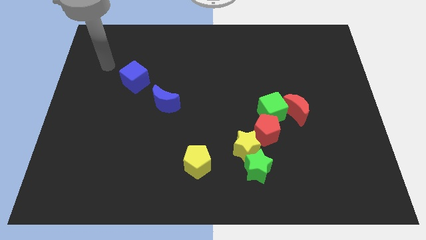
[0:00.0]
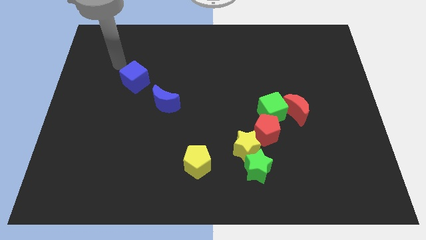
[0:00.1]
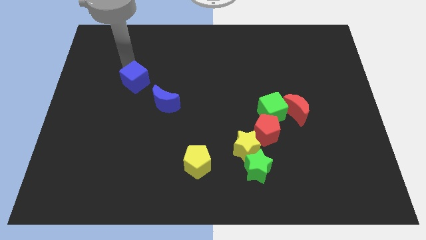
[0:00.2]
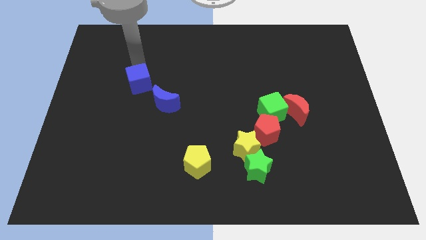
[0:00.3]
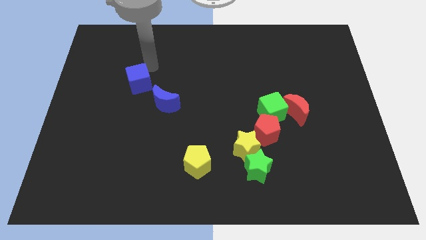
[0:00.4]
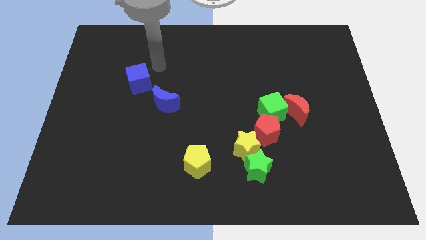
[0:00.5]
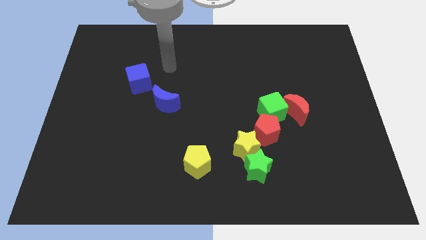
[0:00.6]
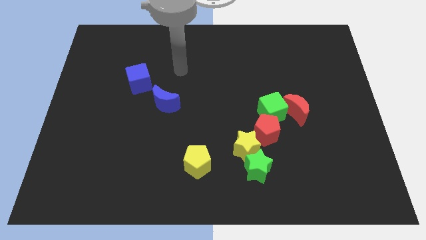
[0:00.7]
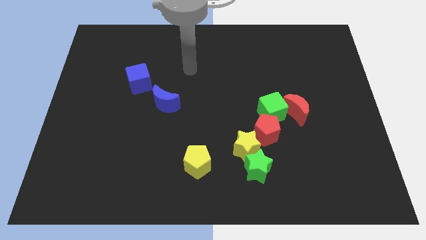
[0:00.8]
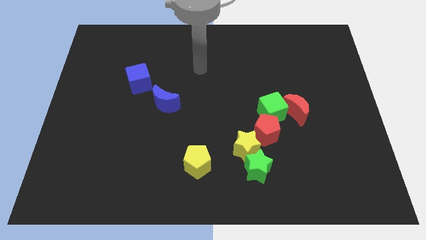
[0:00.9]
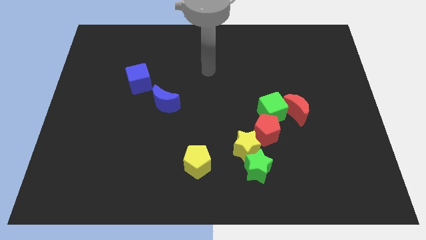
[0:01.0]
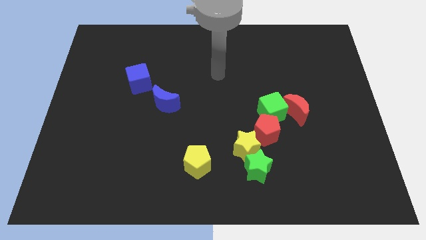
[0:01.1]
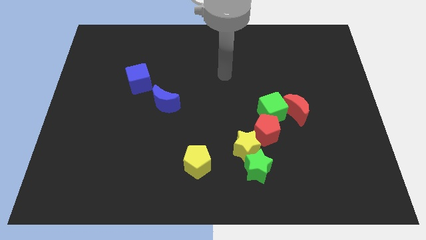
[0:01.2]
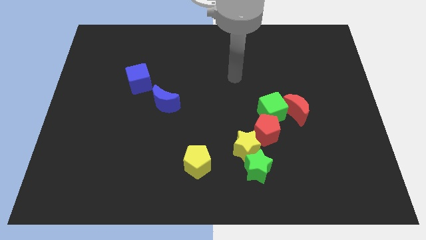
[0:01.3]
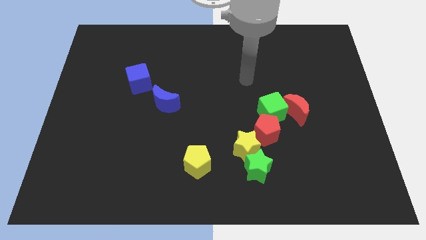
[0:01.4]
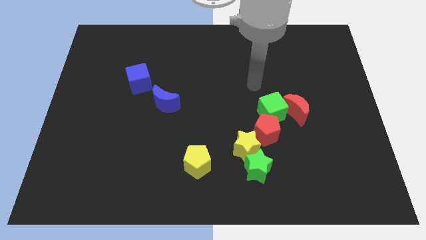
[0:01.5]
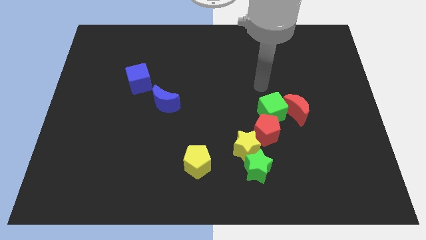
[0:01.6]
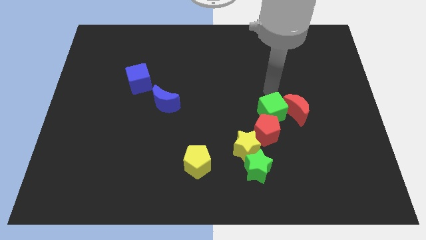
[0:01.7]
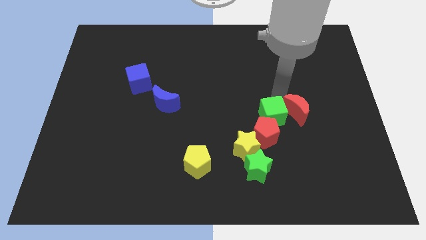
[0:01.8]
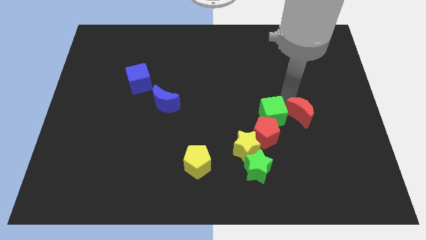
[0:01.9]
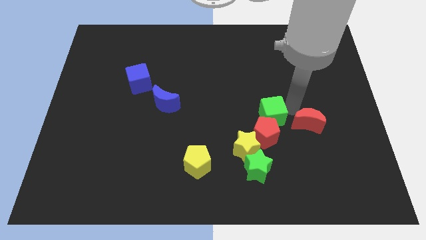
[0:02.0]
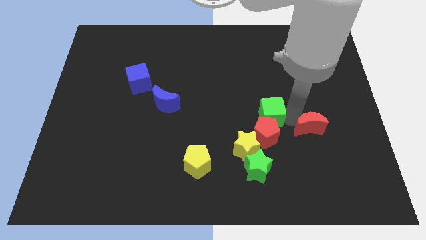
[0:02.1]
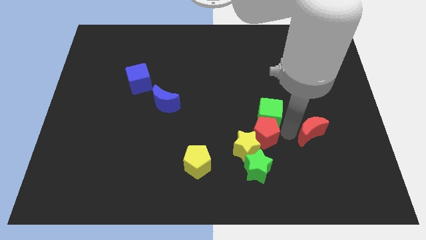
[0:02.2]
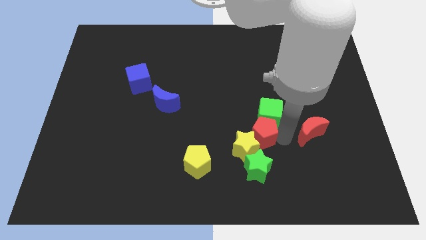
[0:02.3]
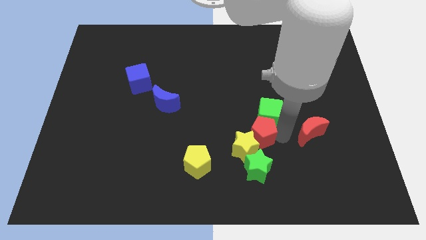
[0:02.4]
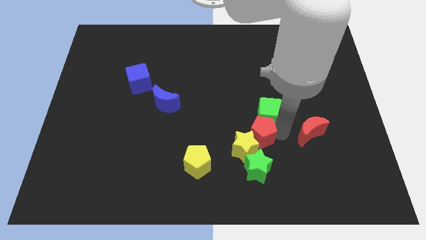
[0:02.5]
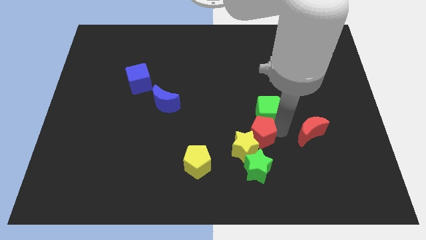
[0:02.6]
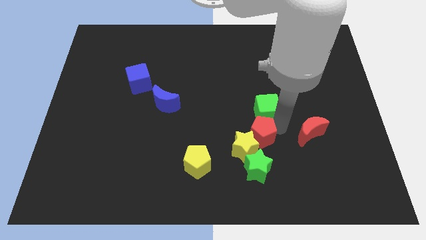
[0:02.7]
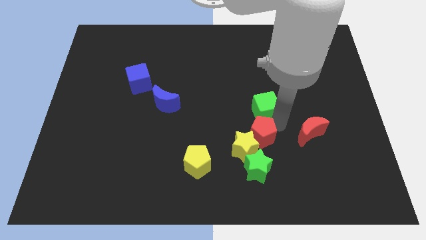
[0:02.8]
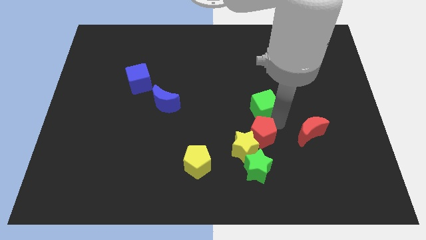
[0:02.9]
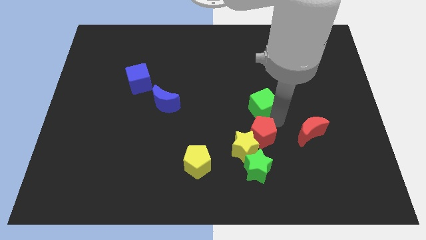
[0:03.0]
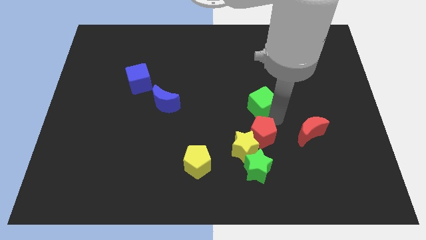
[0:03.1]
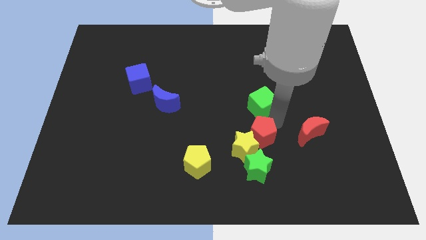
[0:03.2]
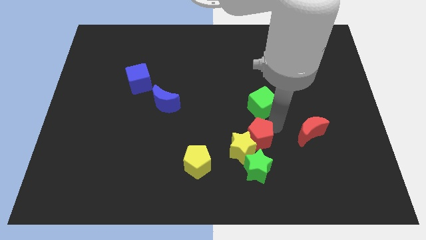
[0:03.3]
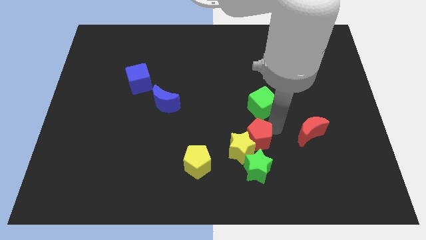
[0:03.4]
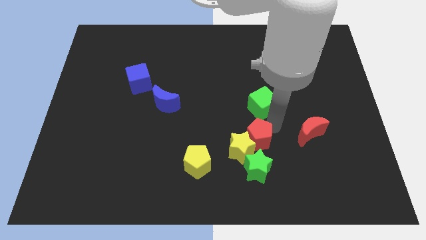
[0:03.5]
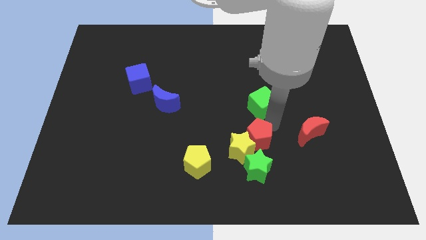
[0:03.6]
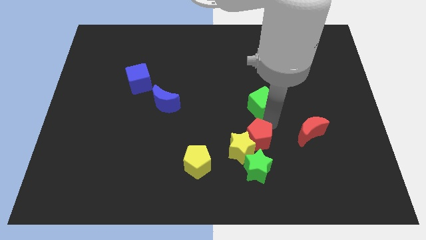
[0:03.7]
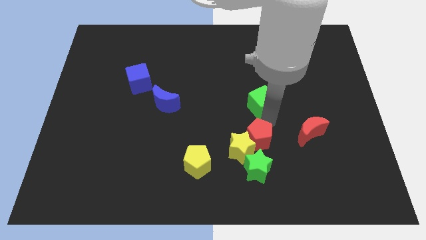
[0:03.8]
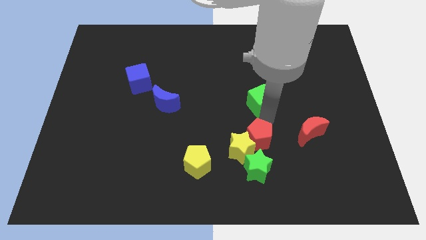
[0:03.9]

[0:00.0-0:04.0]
move the green cube away from the red moon and red pentagon

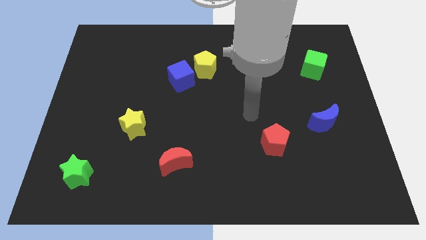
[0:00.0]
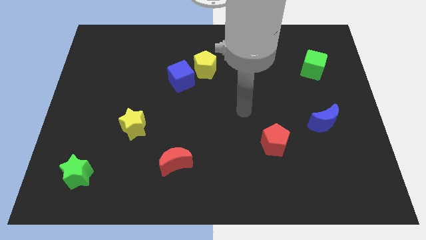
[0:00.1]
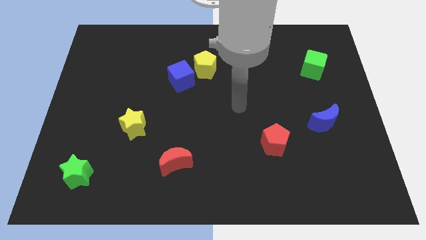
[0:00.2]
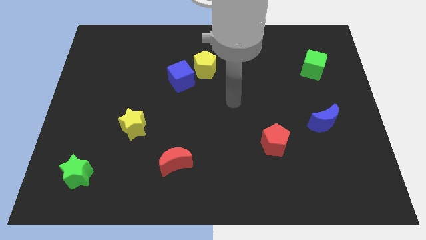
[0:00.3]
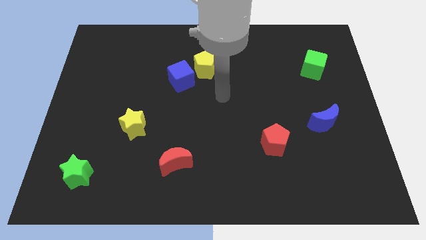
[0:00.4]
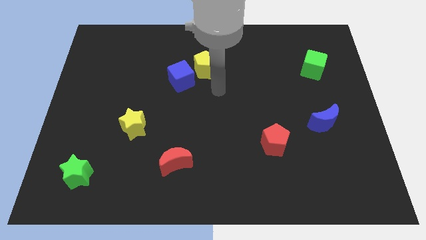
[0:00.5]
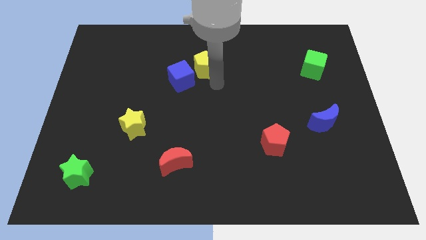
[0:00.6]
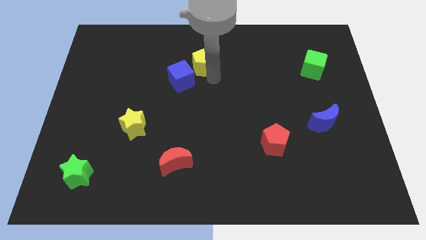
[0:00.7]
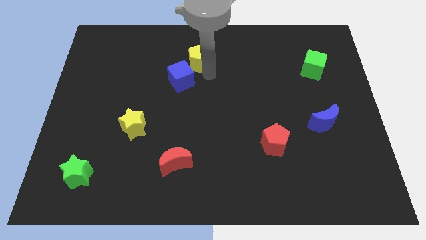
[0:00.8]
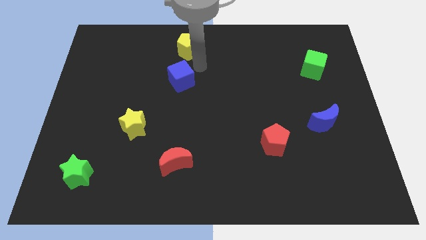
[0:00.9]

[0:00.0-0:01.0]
separate the blue cube from the yellow pentagon

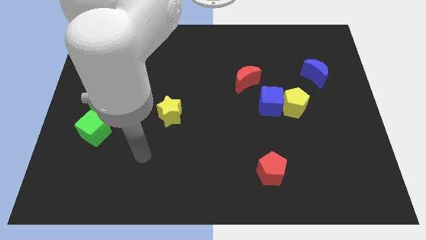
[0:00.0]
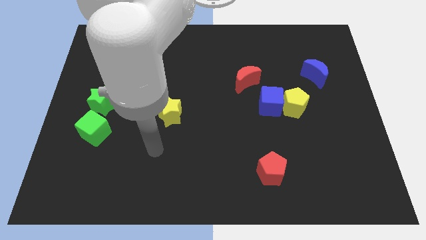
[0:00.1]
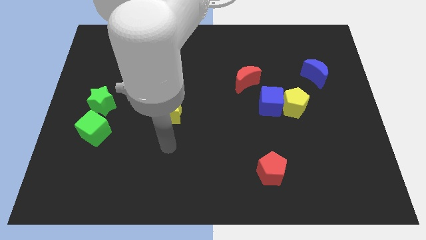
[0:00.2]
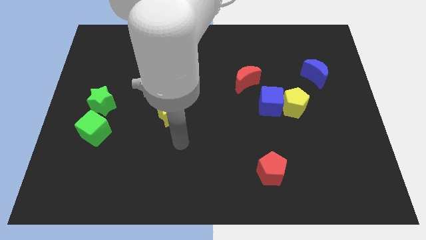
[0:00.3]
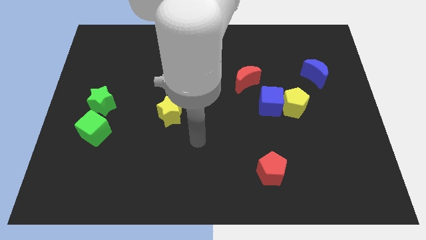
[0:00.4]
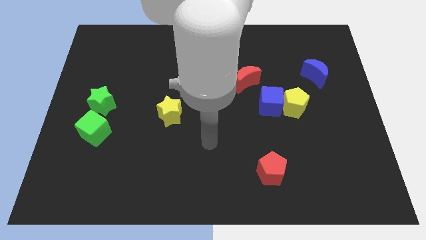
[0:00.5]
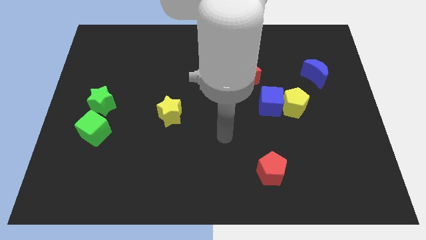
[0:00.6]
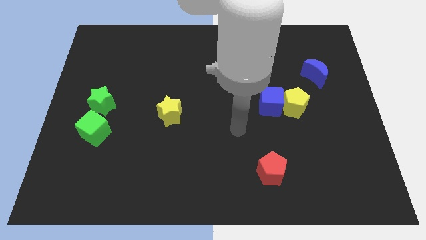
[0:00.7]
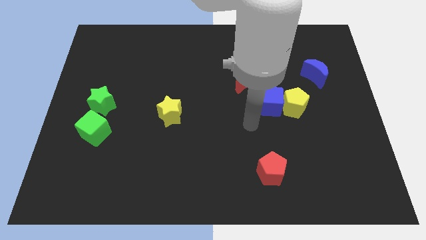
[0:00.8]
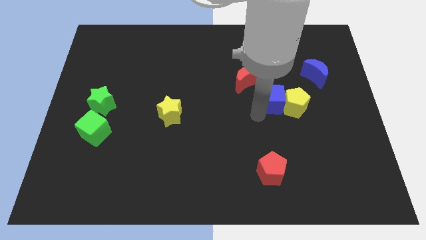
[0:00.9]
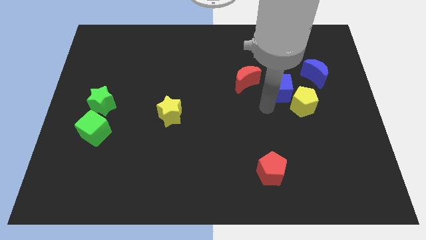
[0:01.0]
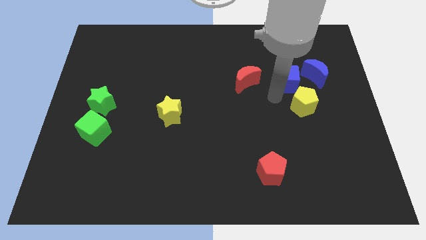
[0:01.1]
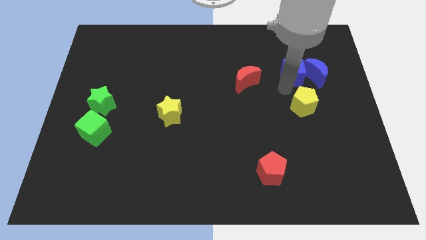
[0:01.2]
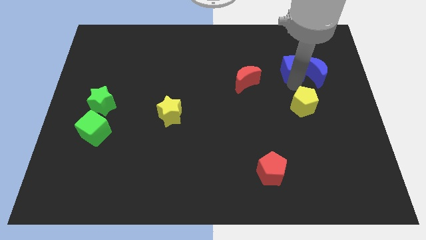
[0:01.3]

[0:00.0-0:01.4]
pull the yellow pentagon apart from the blue cube

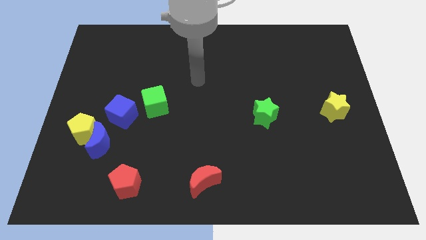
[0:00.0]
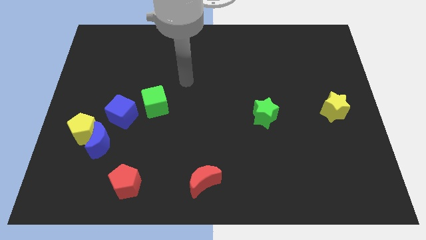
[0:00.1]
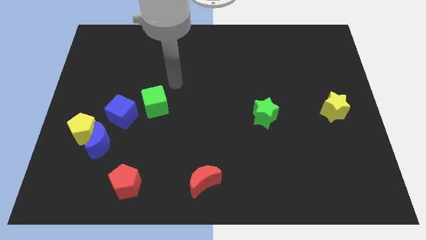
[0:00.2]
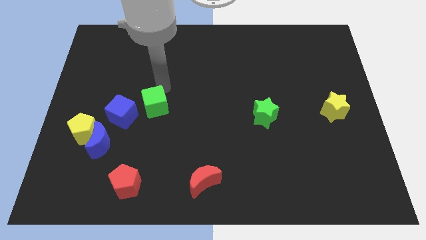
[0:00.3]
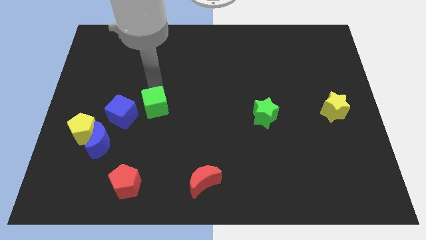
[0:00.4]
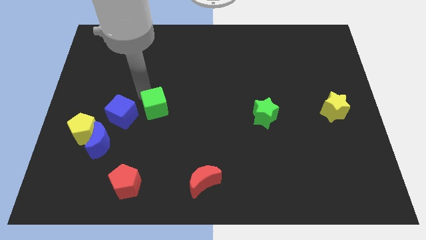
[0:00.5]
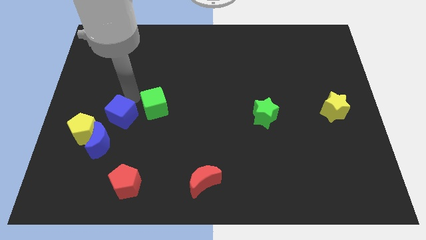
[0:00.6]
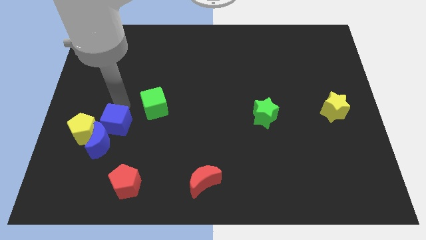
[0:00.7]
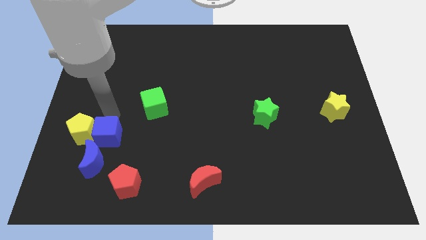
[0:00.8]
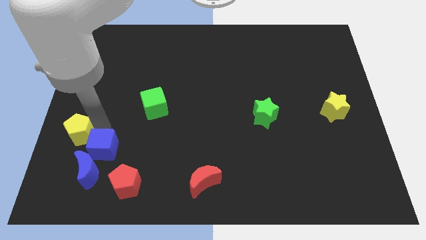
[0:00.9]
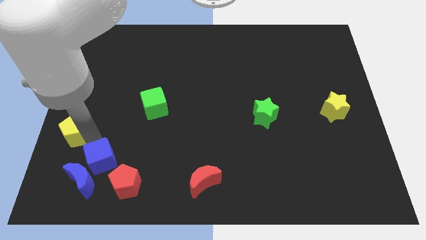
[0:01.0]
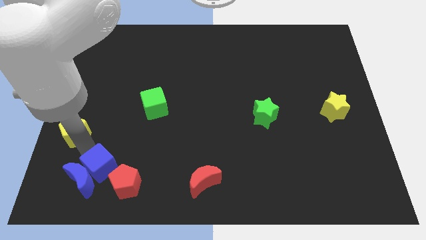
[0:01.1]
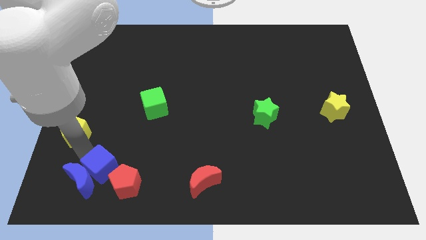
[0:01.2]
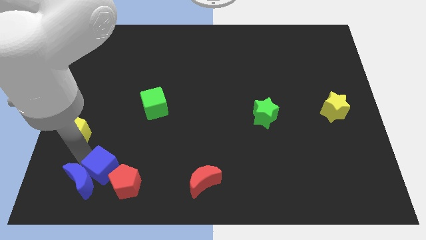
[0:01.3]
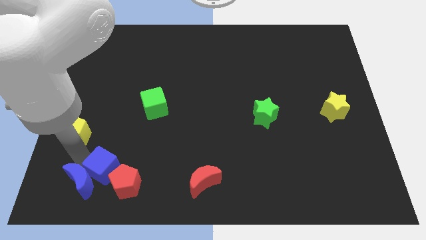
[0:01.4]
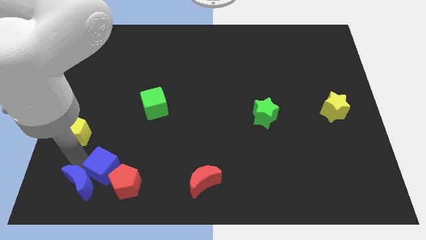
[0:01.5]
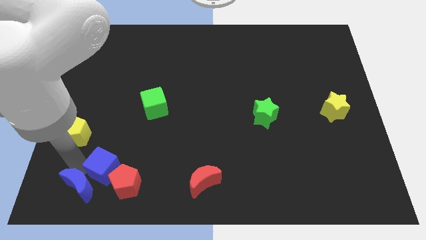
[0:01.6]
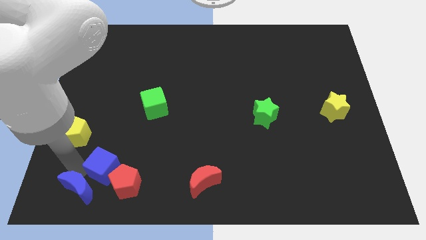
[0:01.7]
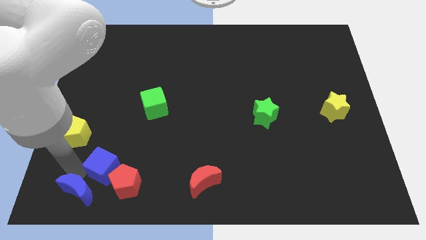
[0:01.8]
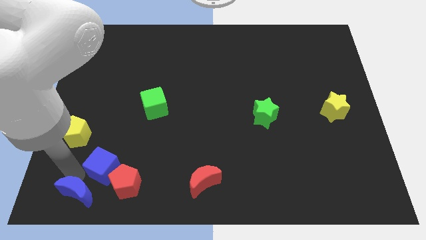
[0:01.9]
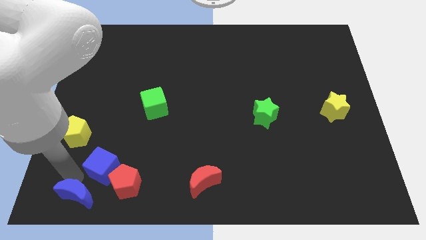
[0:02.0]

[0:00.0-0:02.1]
separate the blue moon from the yellow pentagon and blue cube

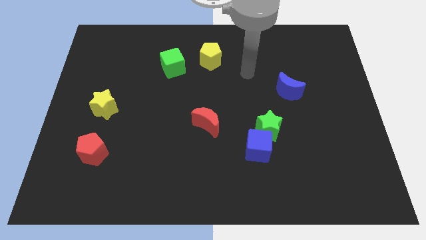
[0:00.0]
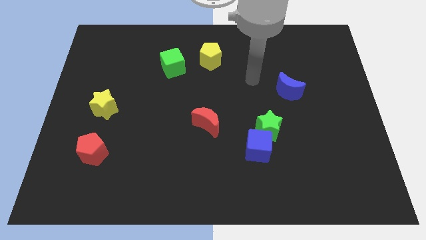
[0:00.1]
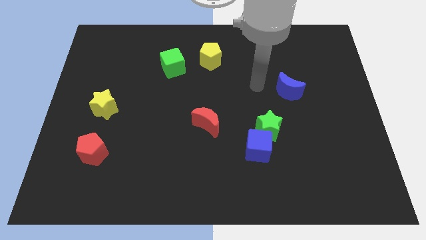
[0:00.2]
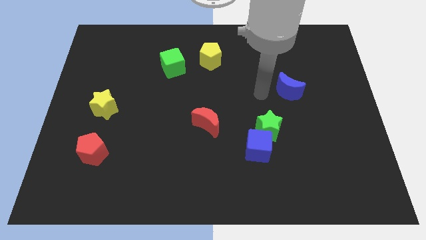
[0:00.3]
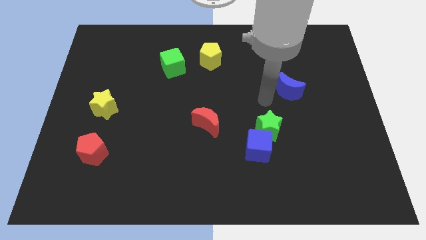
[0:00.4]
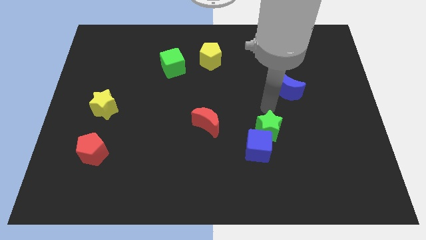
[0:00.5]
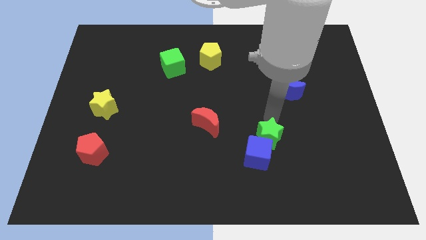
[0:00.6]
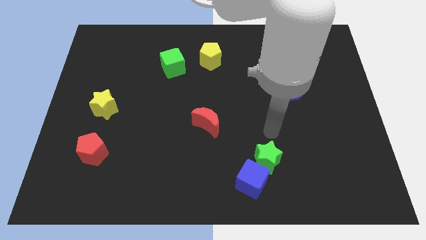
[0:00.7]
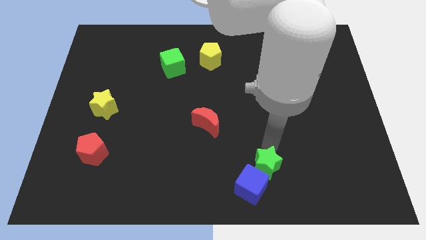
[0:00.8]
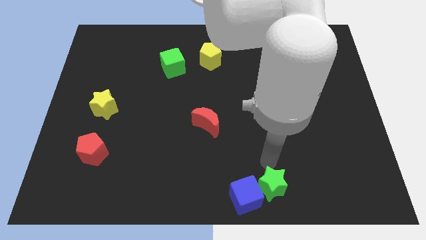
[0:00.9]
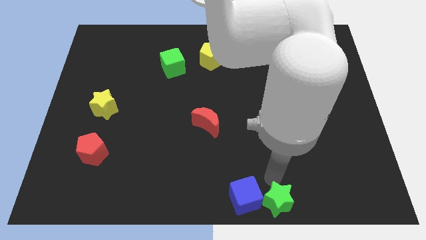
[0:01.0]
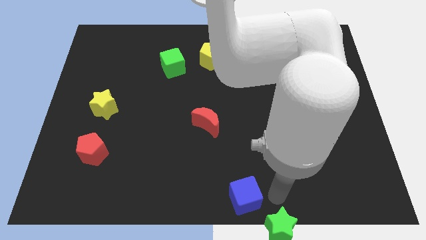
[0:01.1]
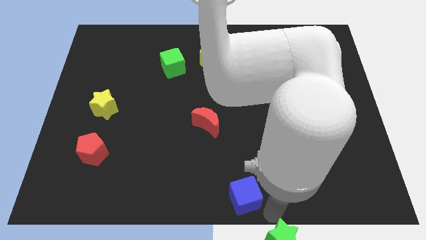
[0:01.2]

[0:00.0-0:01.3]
move the blue cube away from the green star
